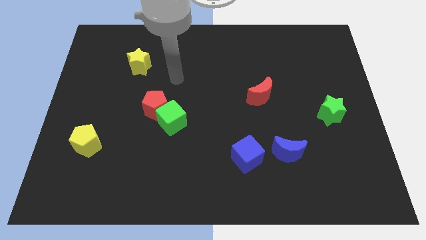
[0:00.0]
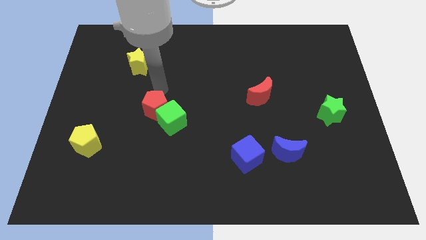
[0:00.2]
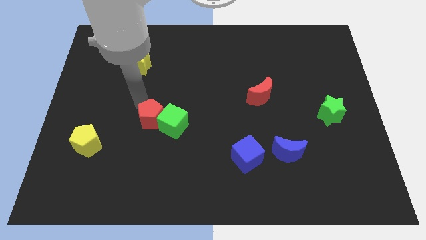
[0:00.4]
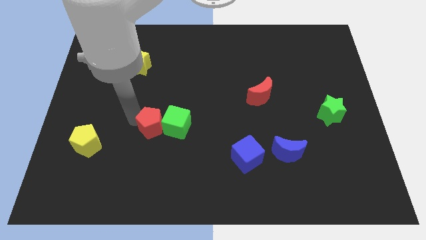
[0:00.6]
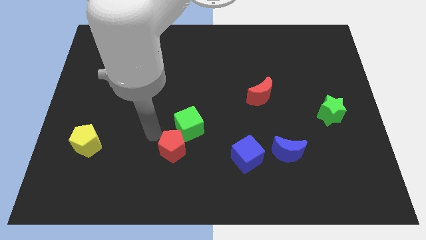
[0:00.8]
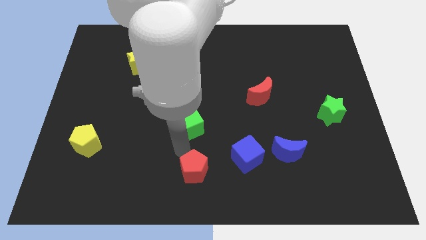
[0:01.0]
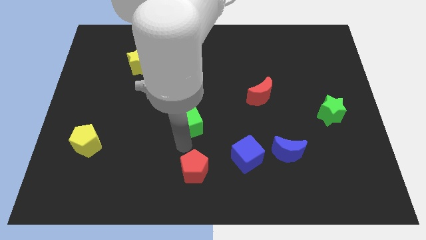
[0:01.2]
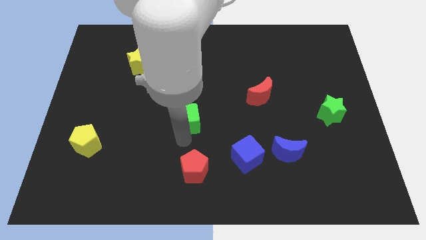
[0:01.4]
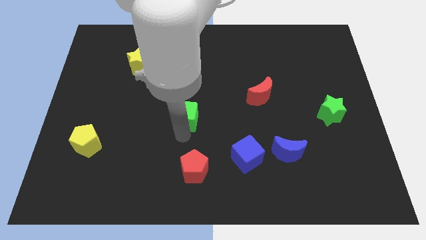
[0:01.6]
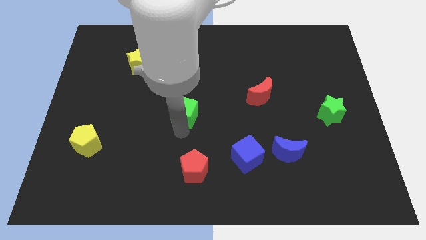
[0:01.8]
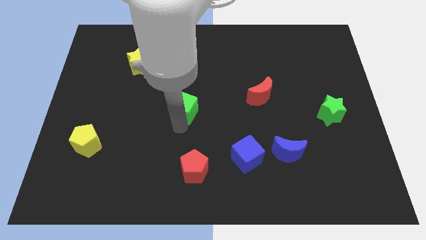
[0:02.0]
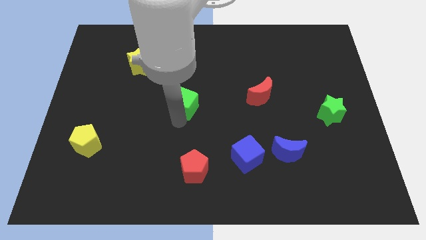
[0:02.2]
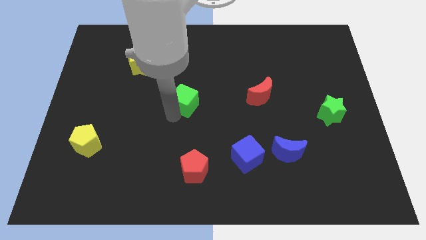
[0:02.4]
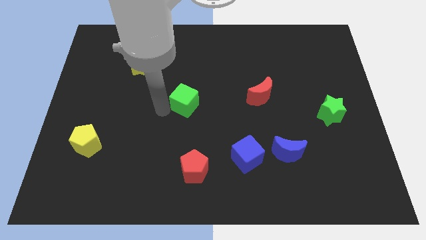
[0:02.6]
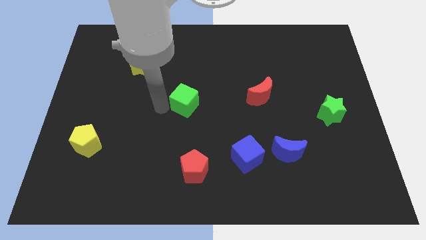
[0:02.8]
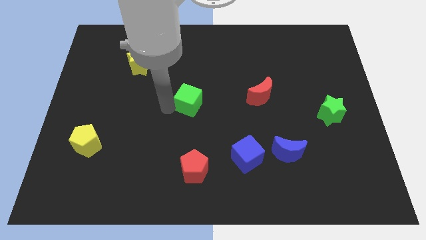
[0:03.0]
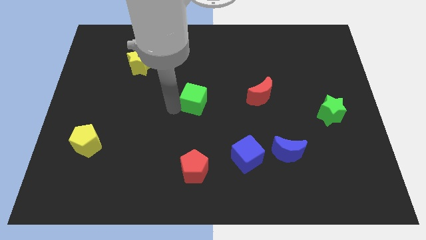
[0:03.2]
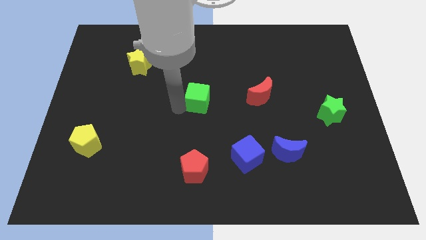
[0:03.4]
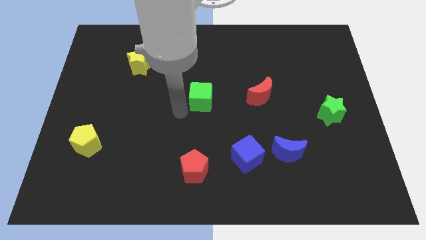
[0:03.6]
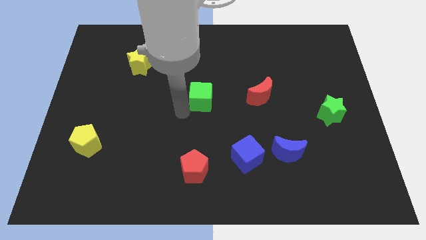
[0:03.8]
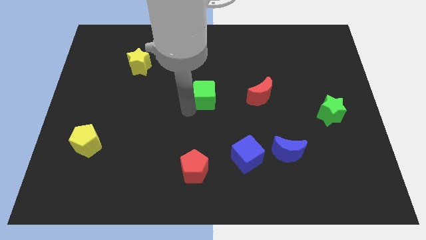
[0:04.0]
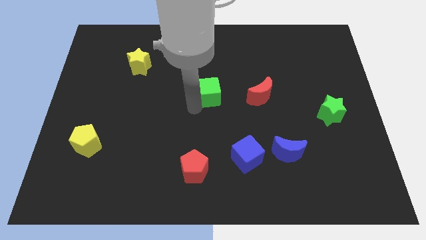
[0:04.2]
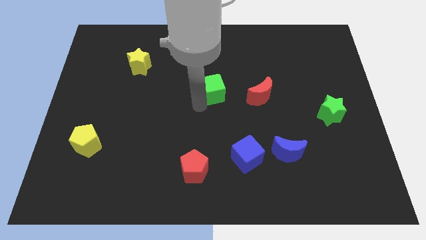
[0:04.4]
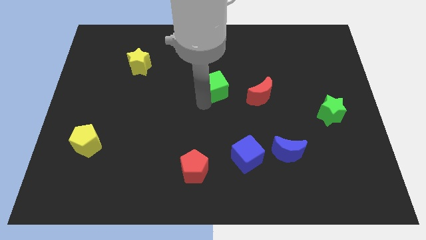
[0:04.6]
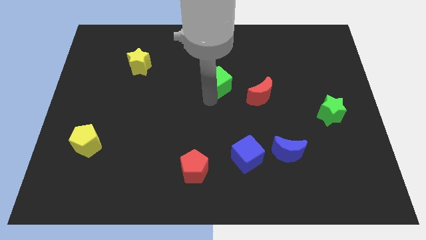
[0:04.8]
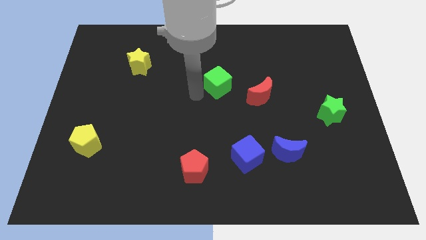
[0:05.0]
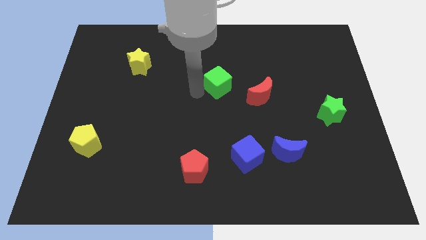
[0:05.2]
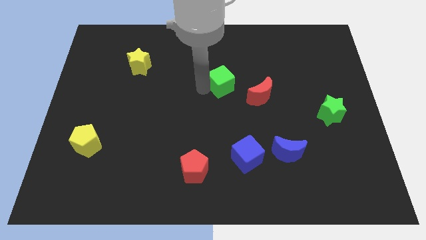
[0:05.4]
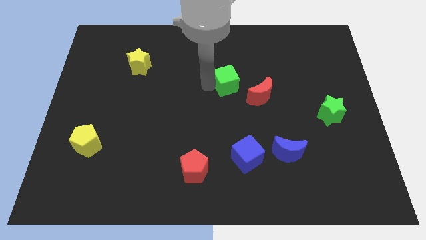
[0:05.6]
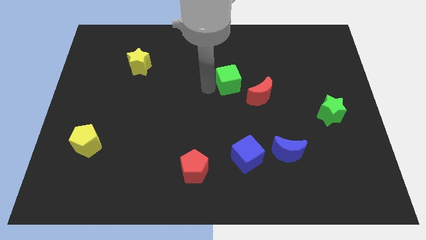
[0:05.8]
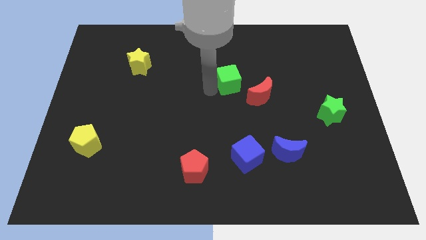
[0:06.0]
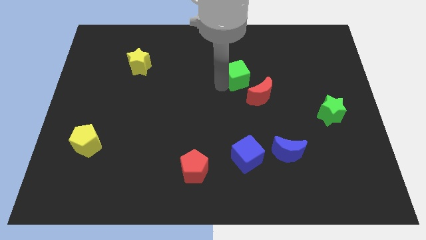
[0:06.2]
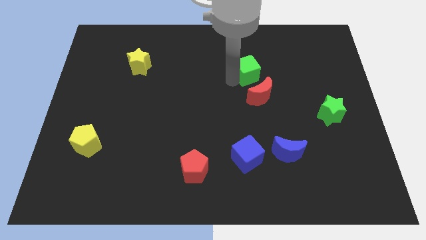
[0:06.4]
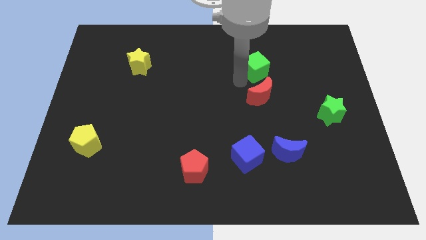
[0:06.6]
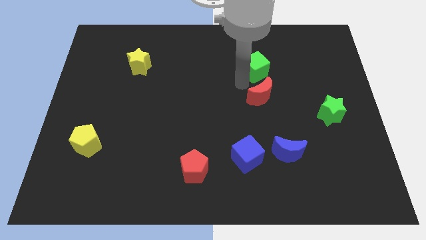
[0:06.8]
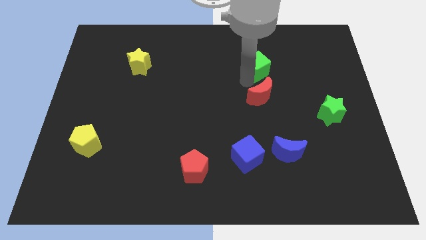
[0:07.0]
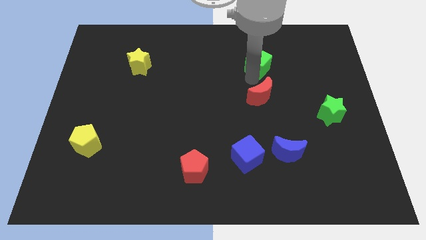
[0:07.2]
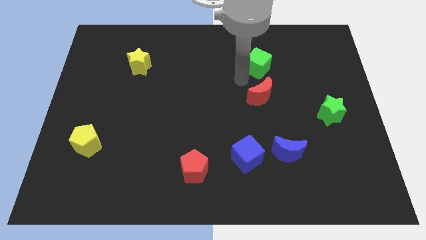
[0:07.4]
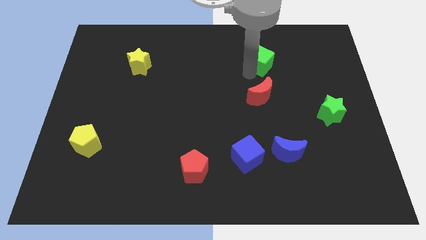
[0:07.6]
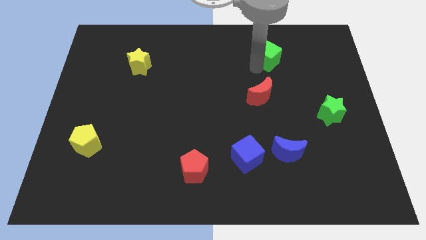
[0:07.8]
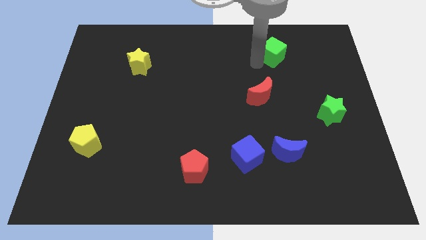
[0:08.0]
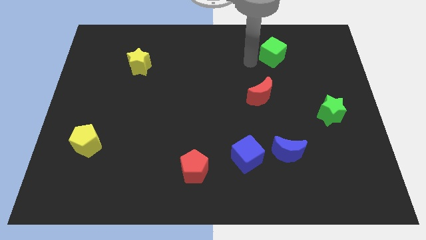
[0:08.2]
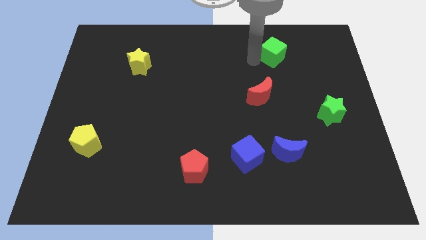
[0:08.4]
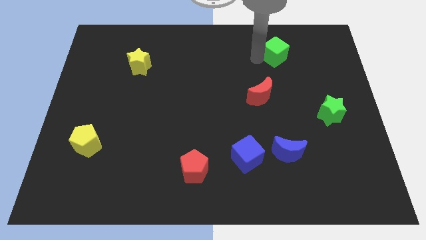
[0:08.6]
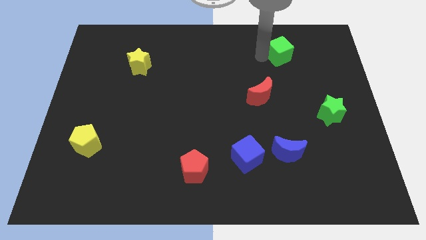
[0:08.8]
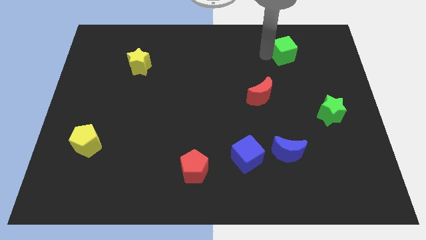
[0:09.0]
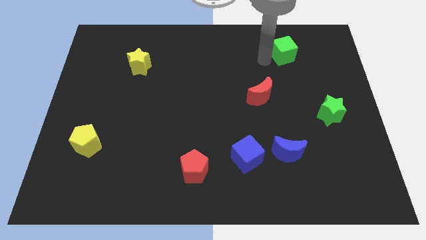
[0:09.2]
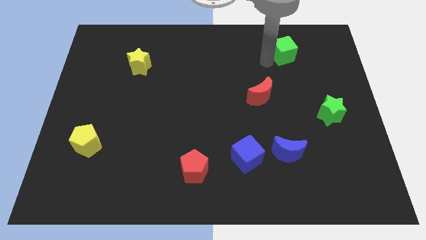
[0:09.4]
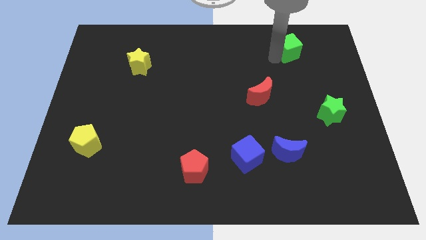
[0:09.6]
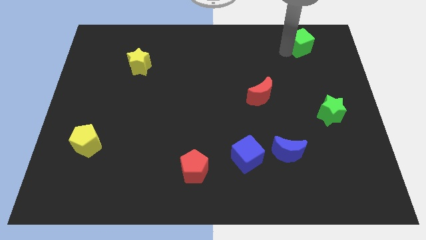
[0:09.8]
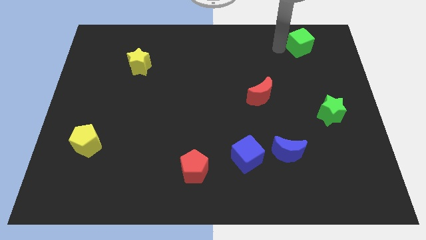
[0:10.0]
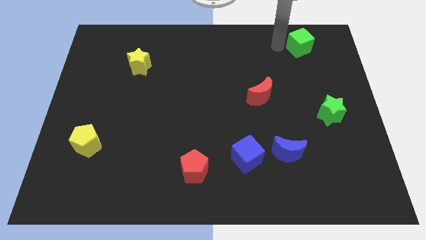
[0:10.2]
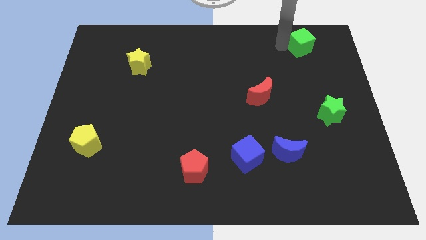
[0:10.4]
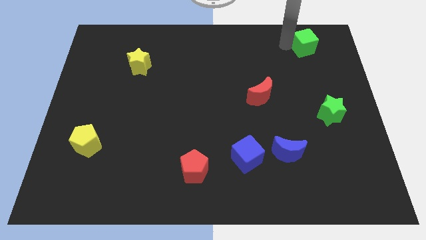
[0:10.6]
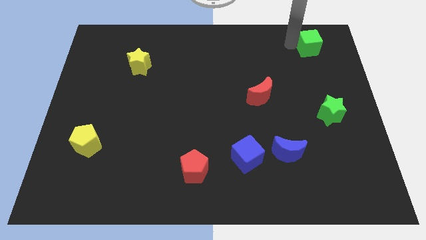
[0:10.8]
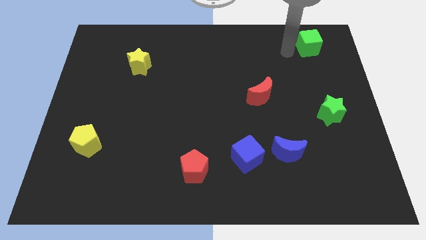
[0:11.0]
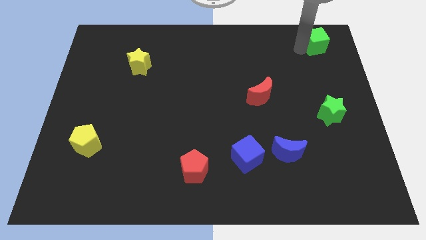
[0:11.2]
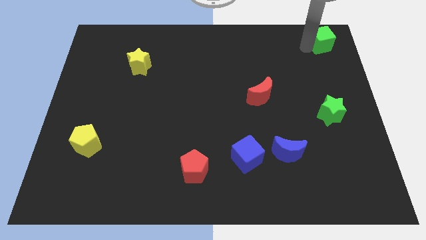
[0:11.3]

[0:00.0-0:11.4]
push the green cube to the upper right corner
